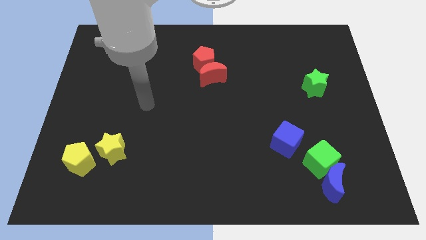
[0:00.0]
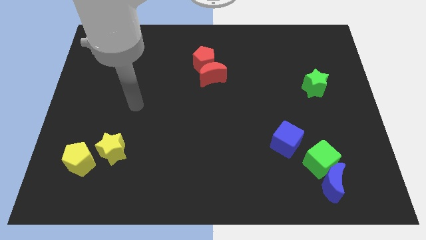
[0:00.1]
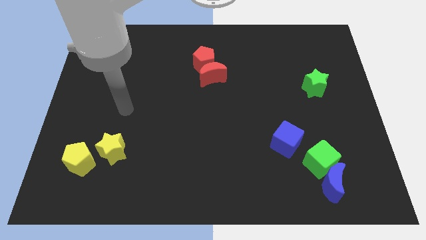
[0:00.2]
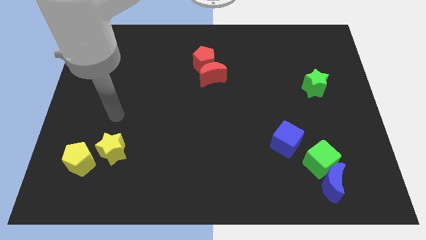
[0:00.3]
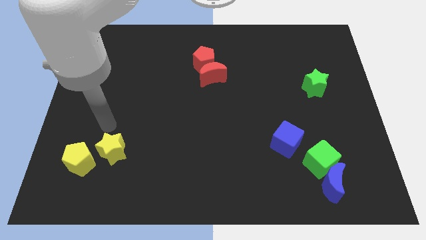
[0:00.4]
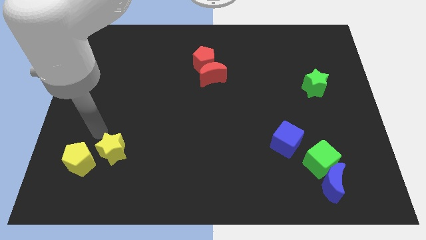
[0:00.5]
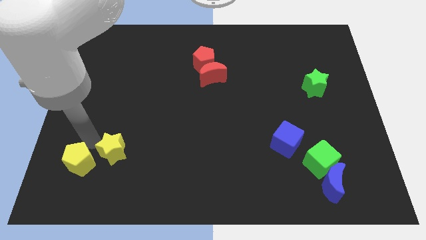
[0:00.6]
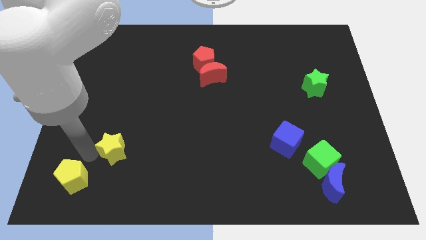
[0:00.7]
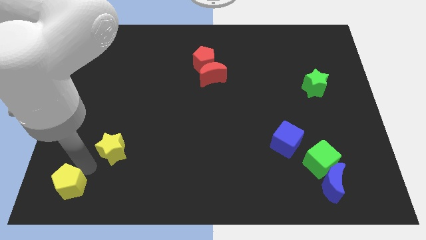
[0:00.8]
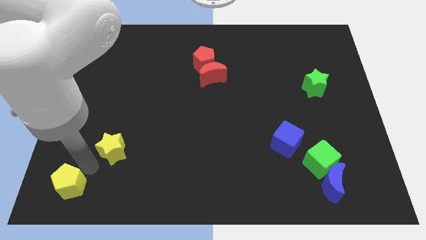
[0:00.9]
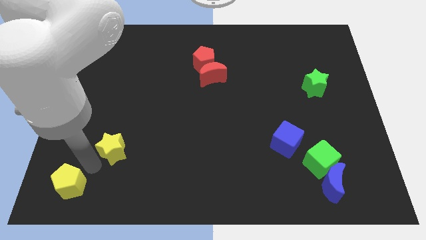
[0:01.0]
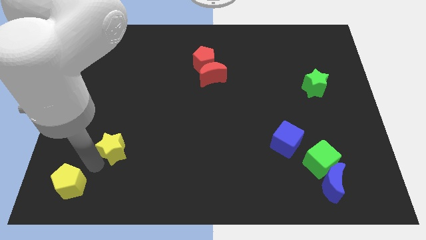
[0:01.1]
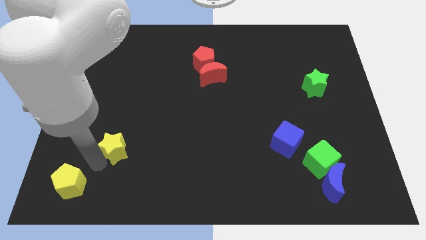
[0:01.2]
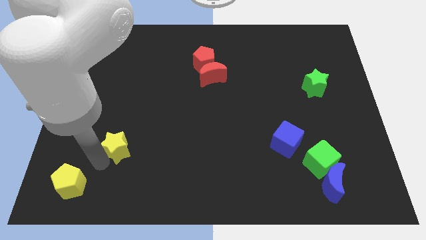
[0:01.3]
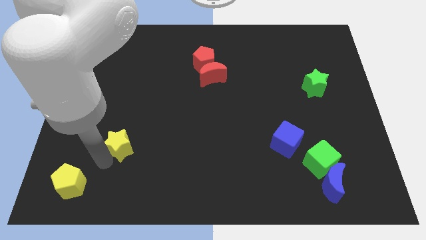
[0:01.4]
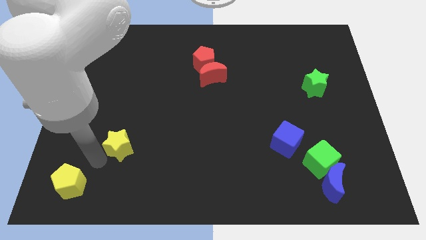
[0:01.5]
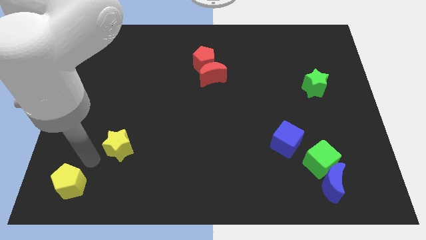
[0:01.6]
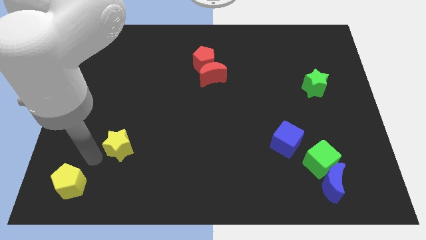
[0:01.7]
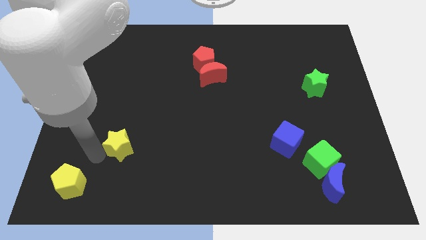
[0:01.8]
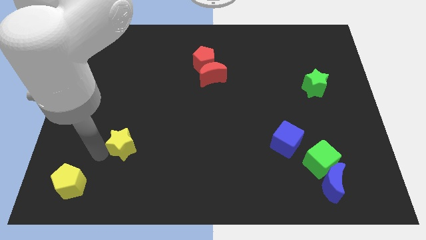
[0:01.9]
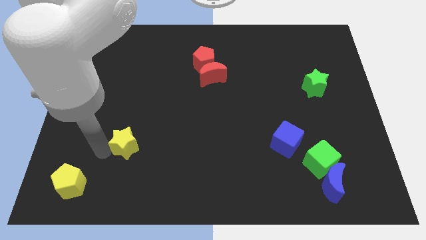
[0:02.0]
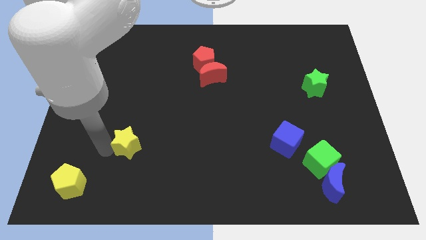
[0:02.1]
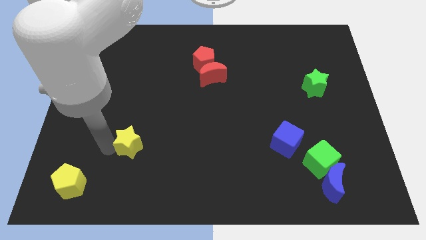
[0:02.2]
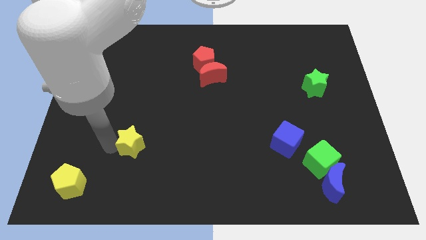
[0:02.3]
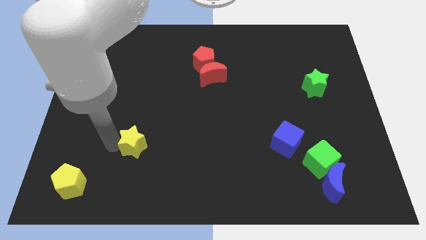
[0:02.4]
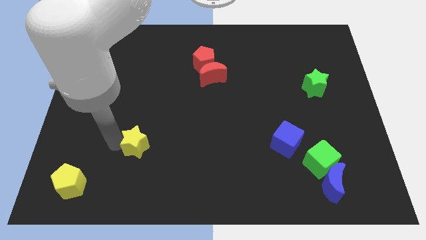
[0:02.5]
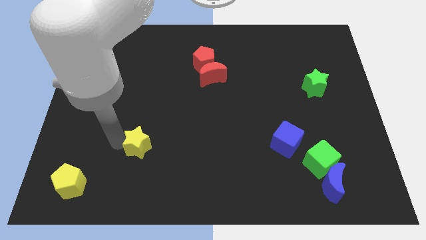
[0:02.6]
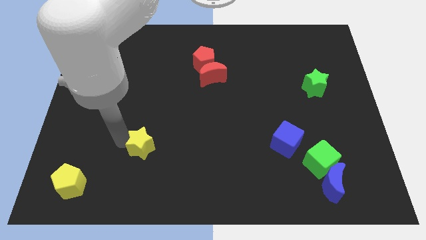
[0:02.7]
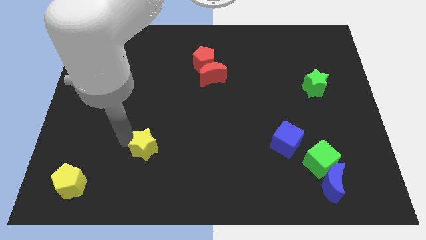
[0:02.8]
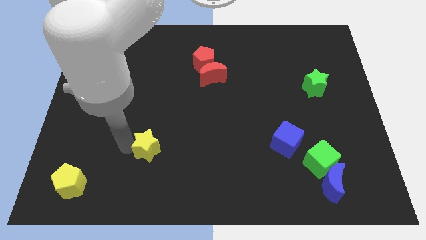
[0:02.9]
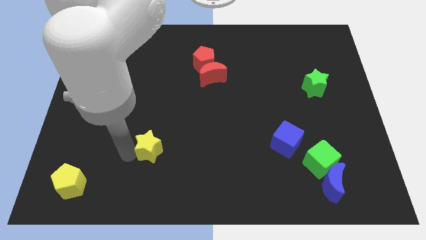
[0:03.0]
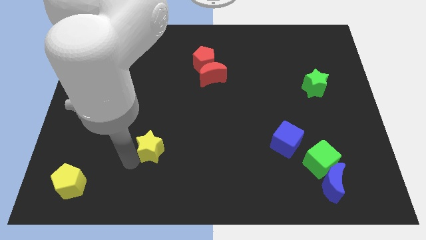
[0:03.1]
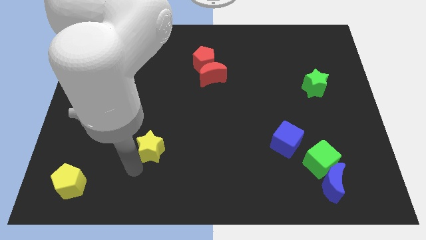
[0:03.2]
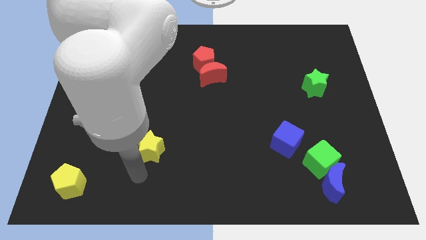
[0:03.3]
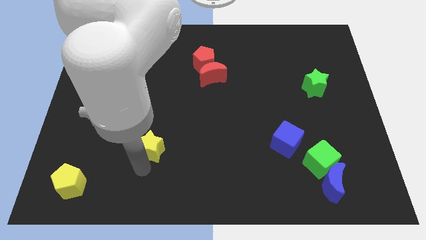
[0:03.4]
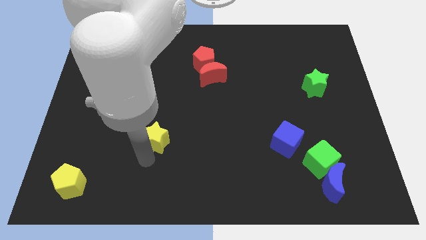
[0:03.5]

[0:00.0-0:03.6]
slide the yellow star up and then right somewhat

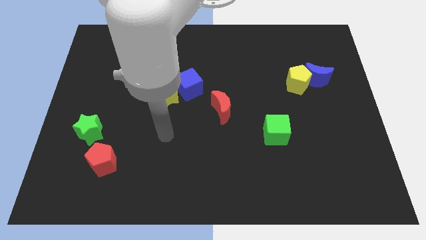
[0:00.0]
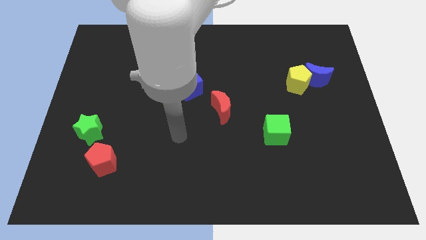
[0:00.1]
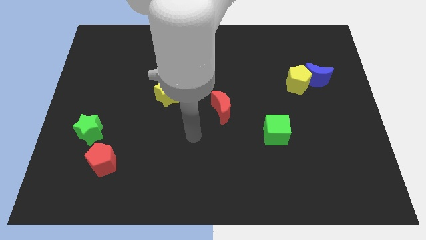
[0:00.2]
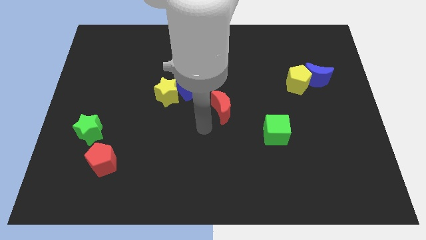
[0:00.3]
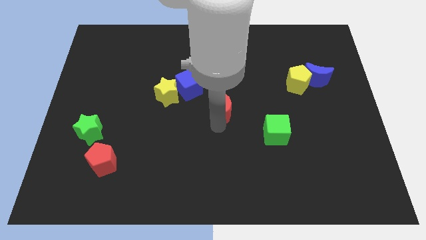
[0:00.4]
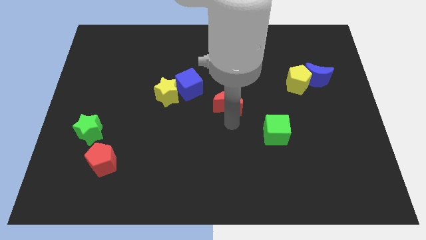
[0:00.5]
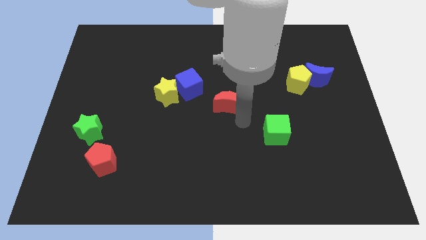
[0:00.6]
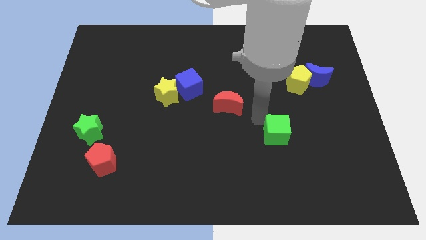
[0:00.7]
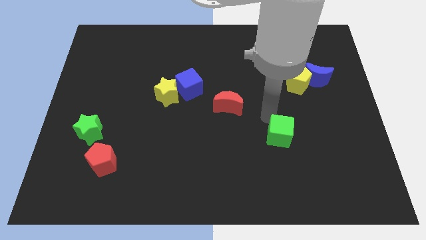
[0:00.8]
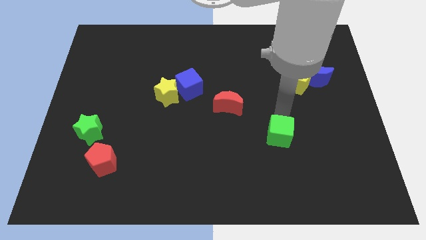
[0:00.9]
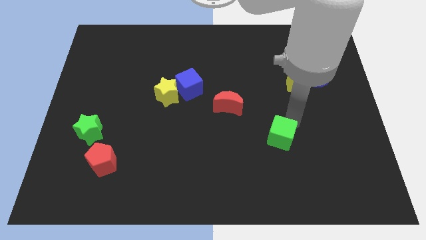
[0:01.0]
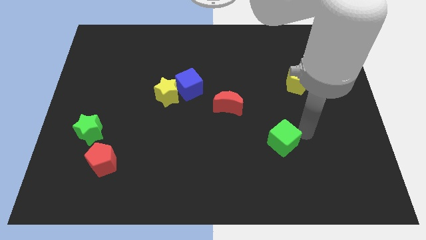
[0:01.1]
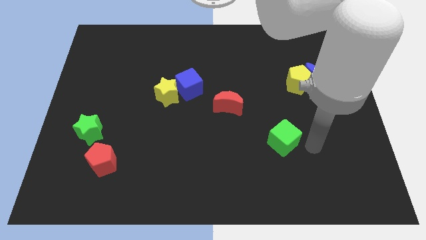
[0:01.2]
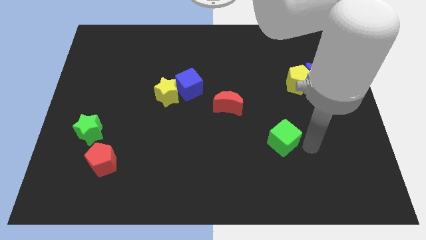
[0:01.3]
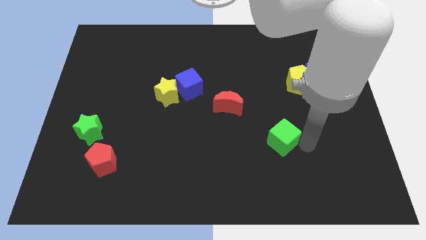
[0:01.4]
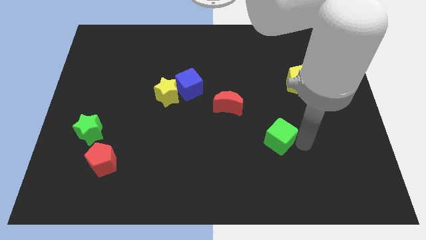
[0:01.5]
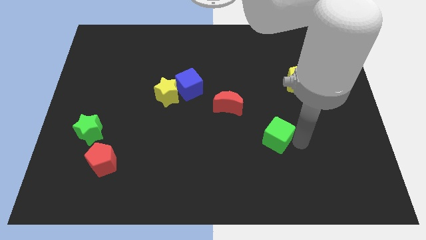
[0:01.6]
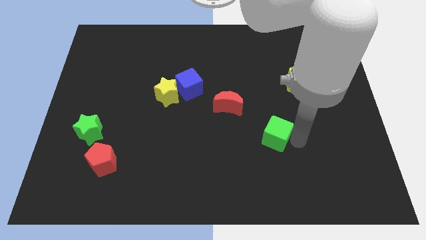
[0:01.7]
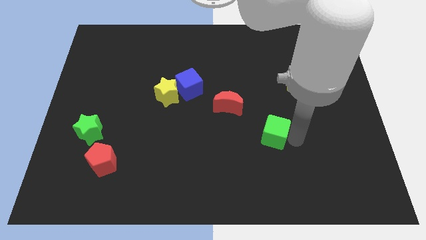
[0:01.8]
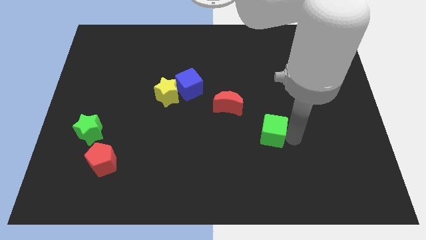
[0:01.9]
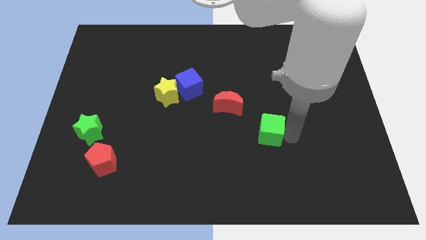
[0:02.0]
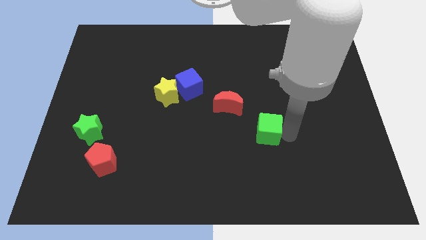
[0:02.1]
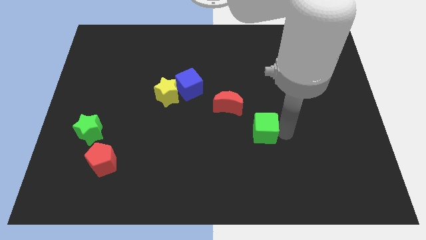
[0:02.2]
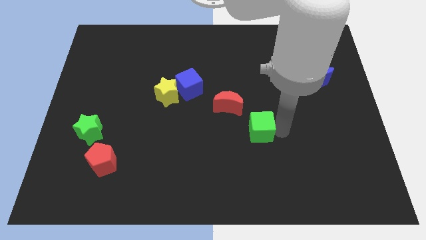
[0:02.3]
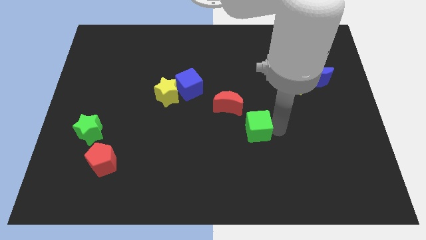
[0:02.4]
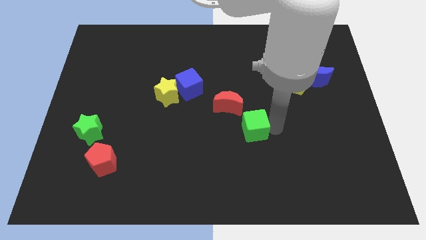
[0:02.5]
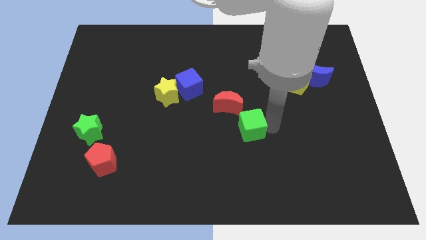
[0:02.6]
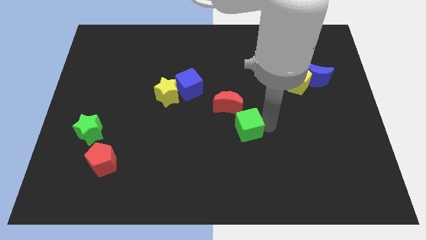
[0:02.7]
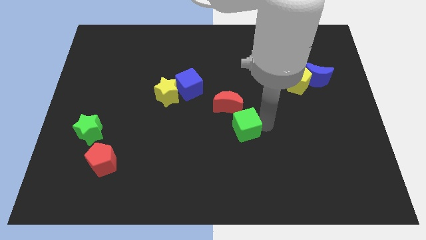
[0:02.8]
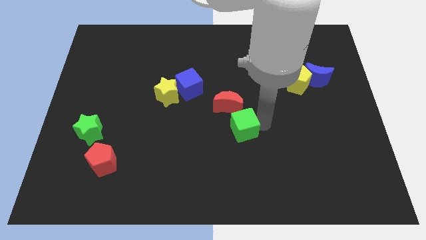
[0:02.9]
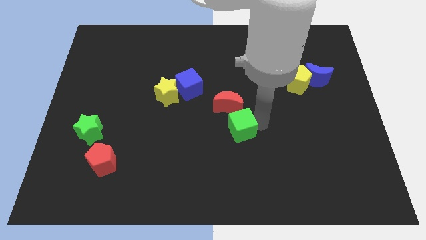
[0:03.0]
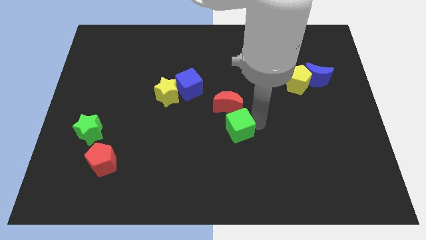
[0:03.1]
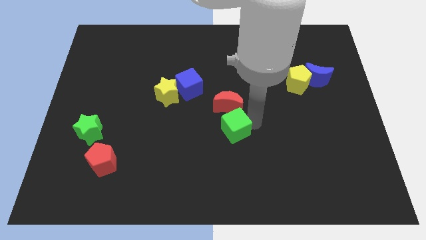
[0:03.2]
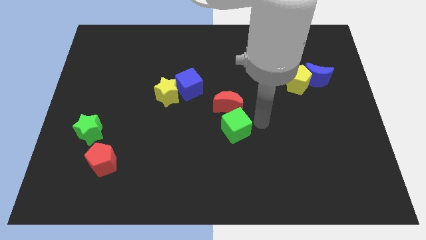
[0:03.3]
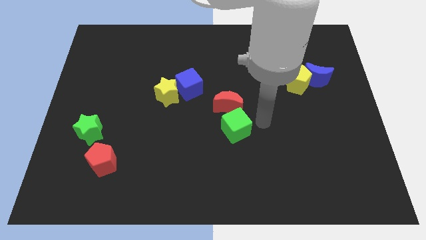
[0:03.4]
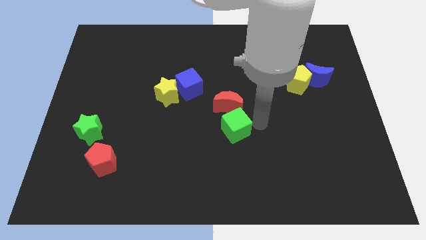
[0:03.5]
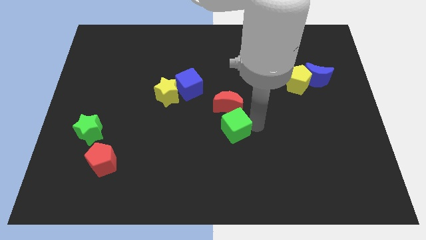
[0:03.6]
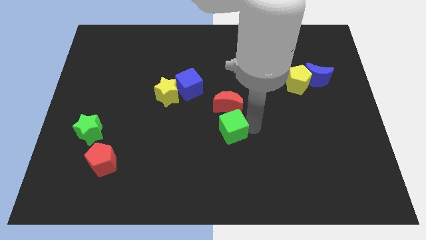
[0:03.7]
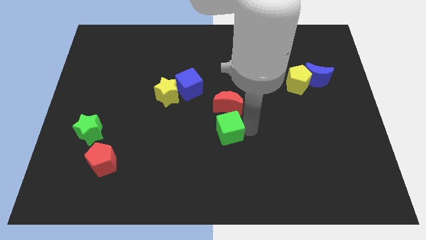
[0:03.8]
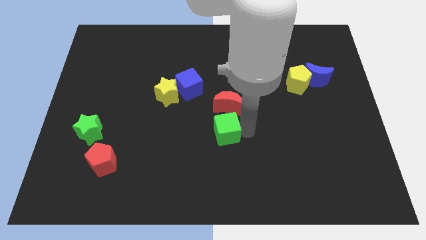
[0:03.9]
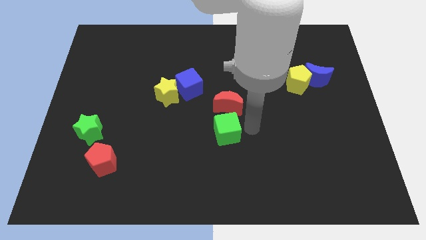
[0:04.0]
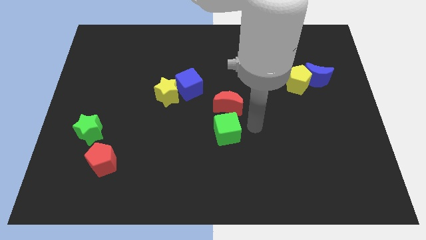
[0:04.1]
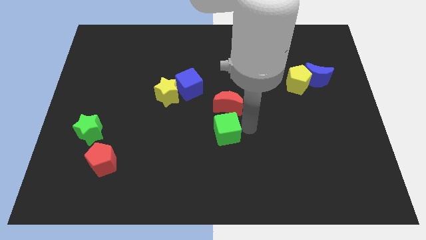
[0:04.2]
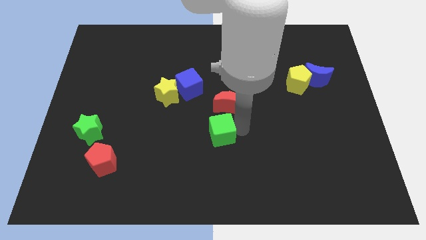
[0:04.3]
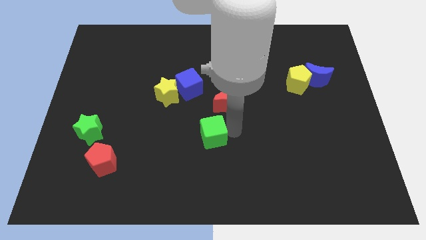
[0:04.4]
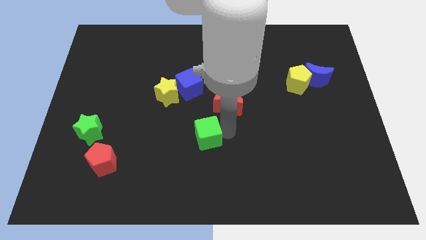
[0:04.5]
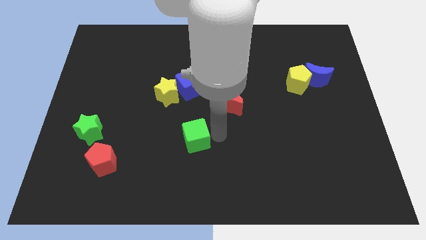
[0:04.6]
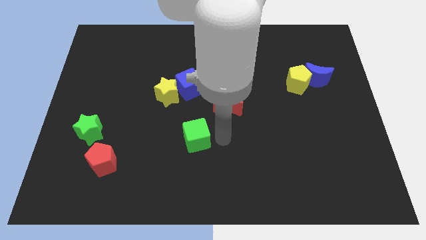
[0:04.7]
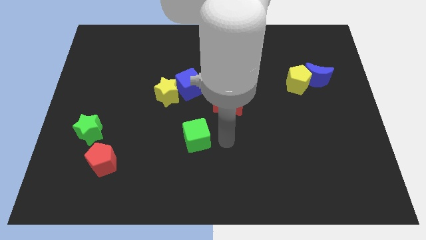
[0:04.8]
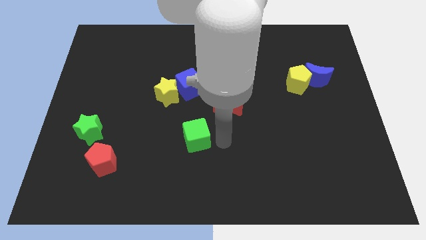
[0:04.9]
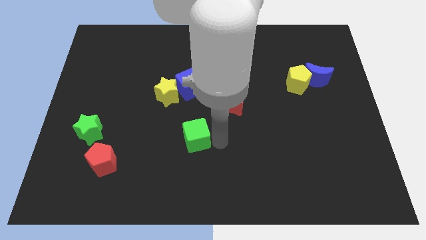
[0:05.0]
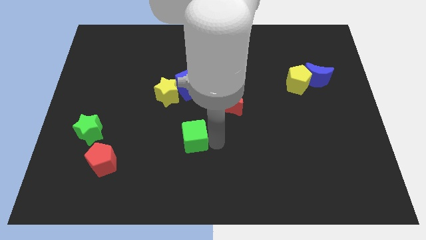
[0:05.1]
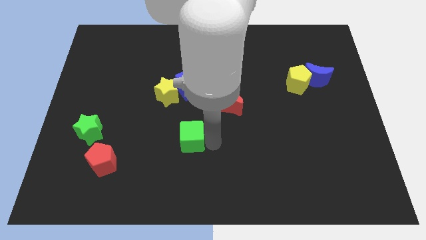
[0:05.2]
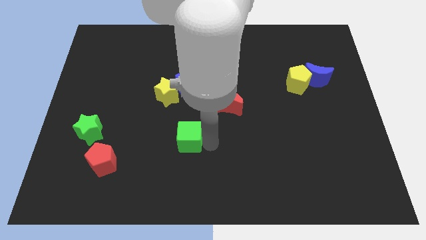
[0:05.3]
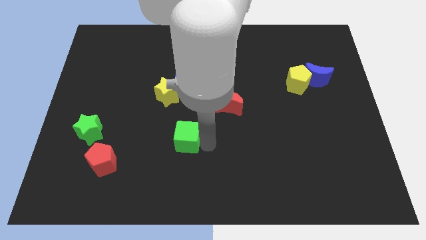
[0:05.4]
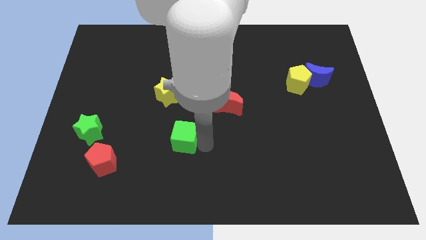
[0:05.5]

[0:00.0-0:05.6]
move the green cube left
